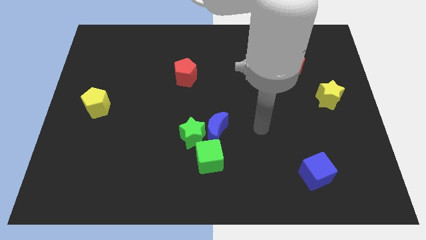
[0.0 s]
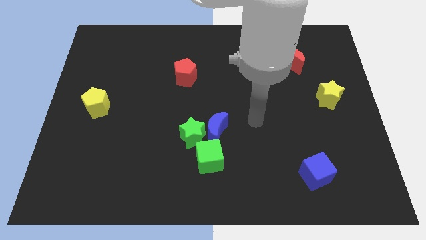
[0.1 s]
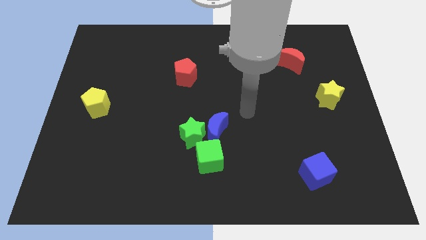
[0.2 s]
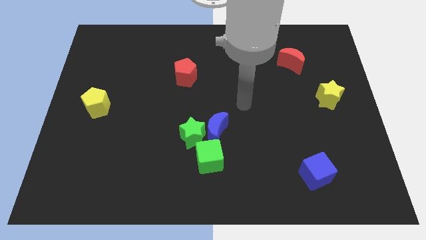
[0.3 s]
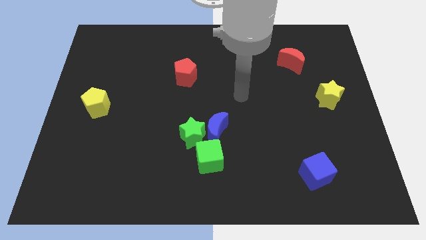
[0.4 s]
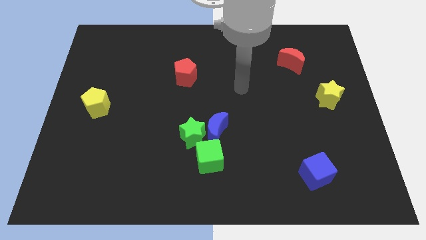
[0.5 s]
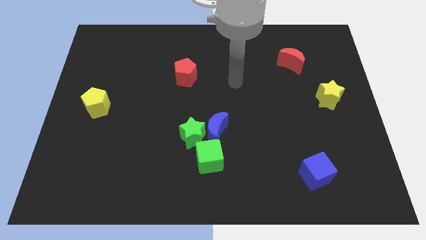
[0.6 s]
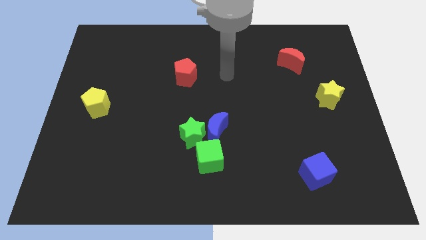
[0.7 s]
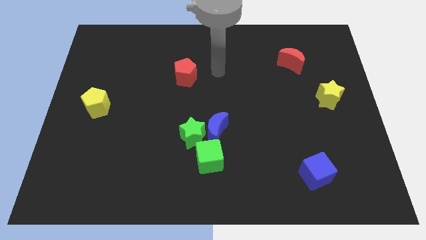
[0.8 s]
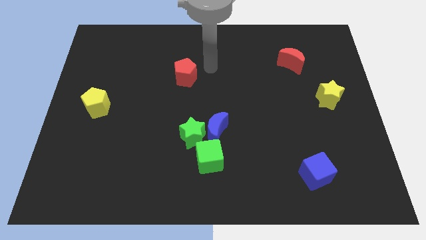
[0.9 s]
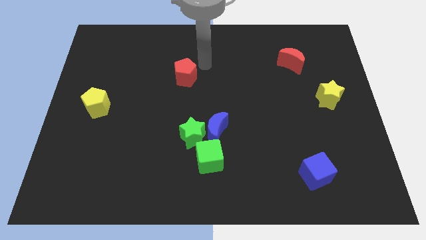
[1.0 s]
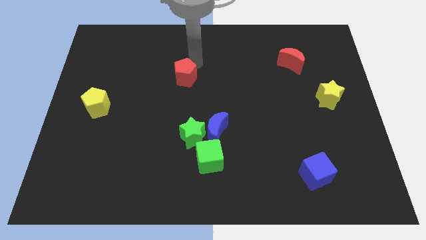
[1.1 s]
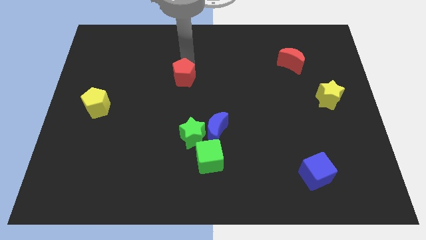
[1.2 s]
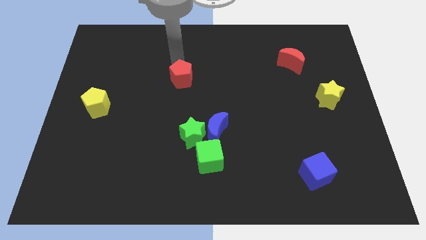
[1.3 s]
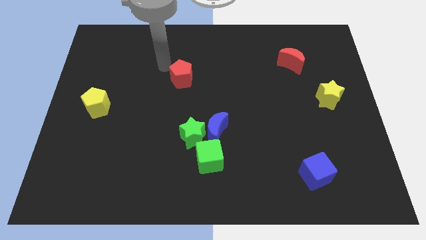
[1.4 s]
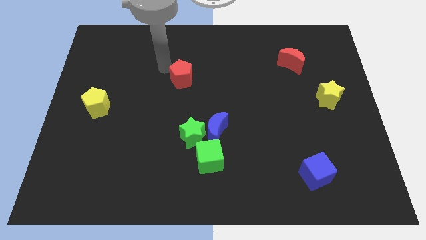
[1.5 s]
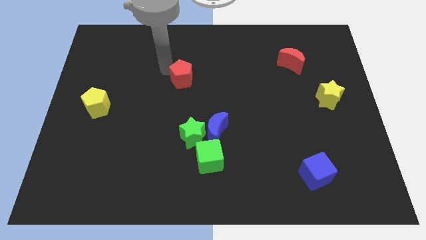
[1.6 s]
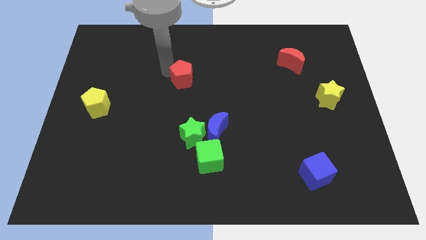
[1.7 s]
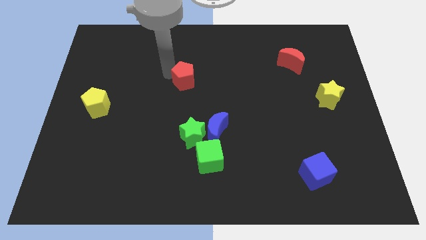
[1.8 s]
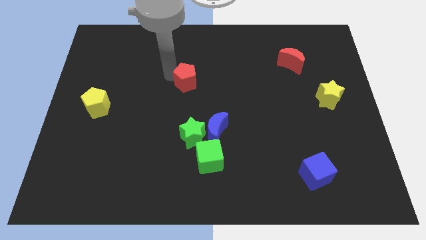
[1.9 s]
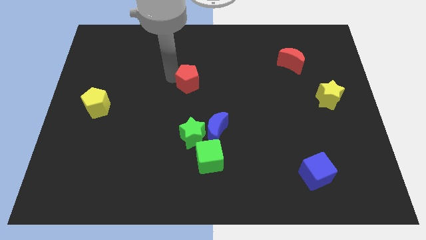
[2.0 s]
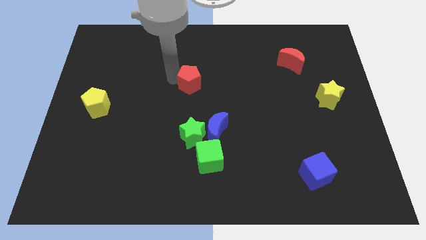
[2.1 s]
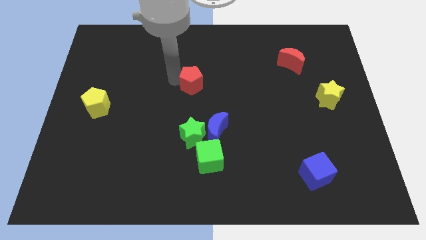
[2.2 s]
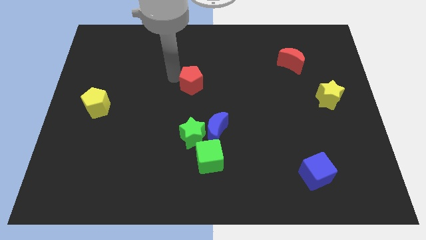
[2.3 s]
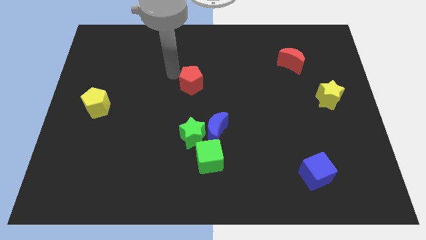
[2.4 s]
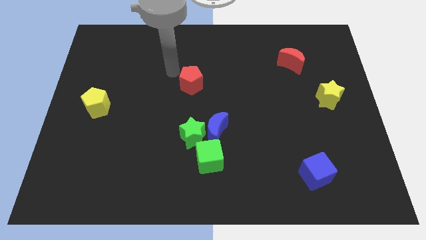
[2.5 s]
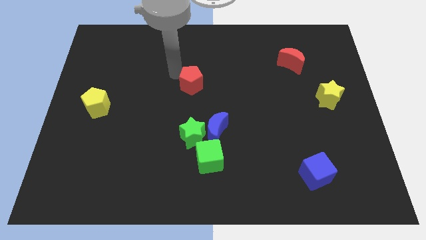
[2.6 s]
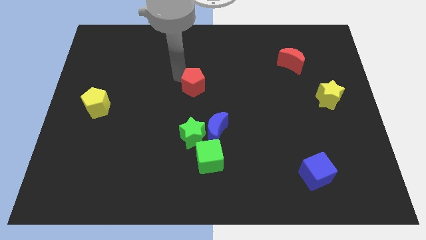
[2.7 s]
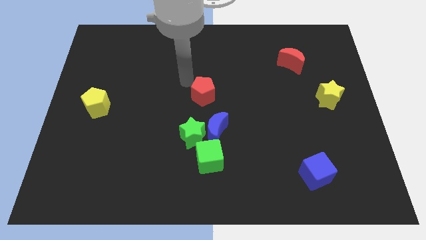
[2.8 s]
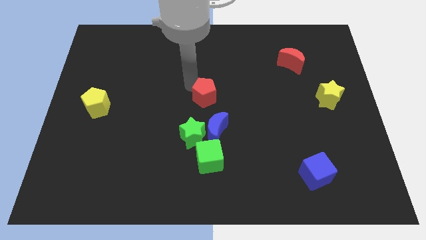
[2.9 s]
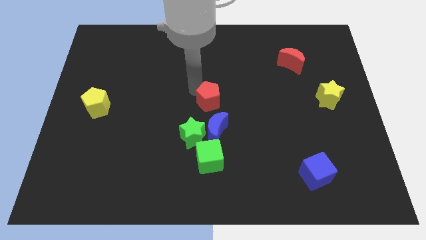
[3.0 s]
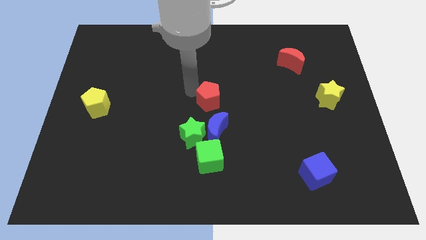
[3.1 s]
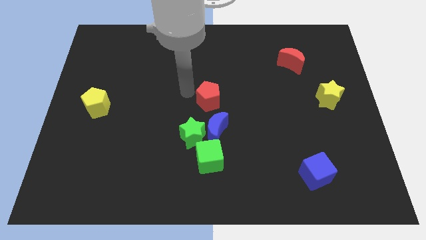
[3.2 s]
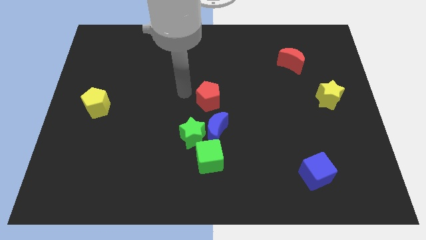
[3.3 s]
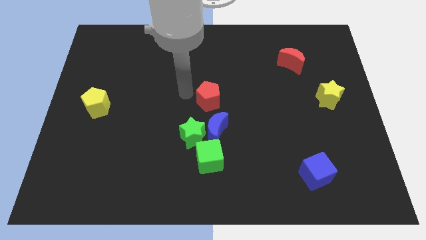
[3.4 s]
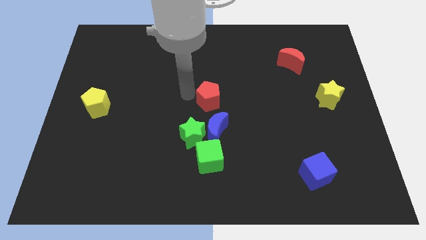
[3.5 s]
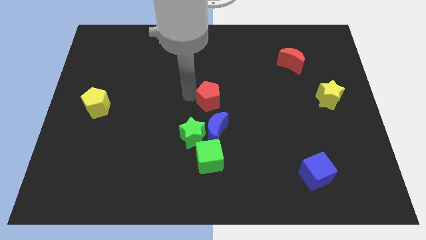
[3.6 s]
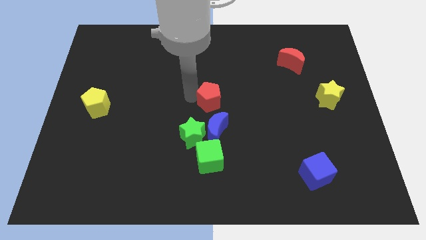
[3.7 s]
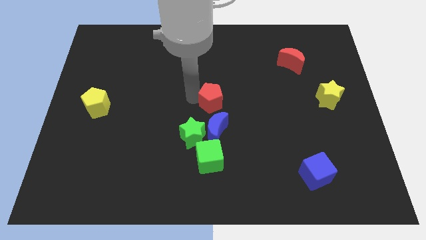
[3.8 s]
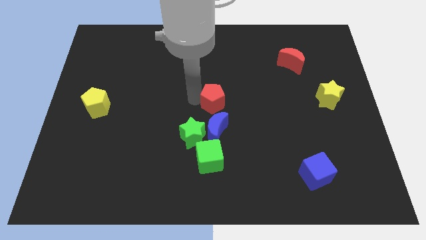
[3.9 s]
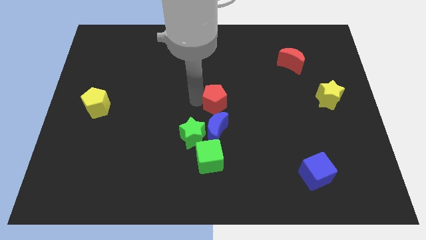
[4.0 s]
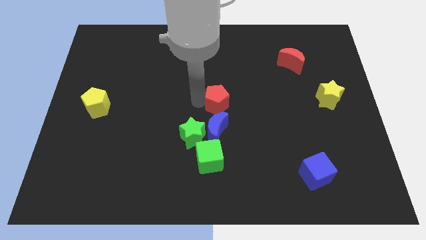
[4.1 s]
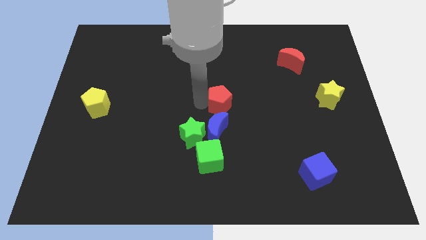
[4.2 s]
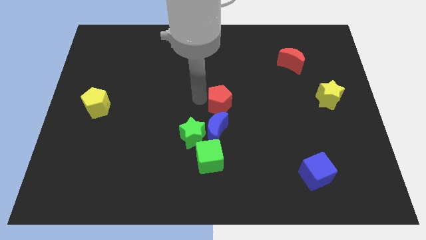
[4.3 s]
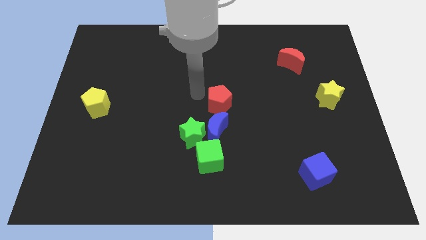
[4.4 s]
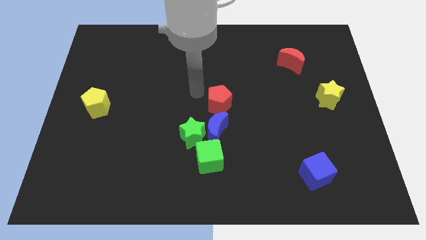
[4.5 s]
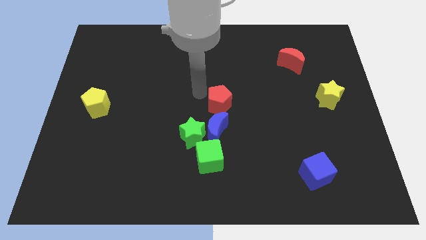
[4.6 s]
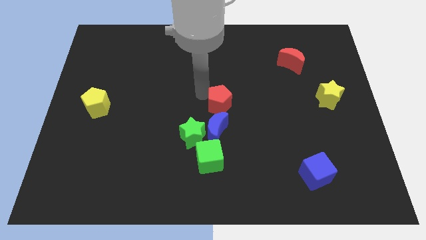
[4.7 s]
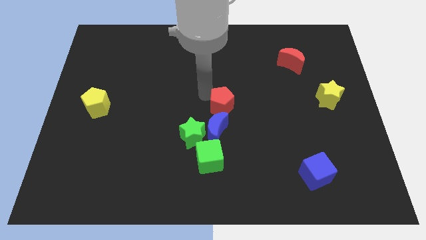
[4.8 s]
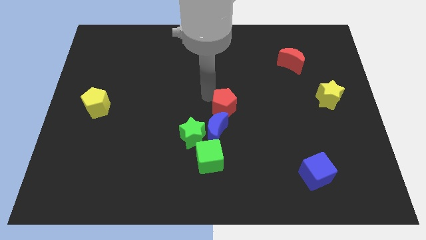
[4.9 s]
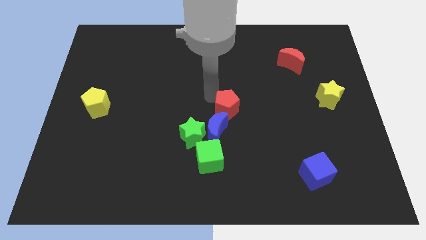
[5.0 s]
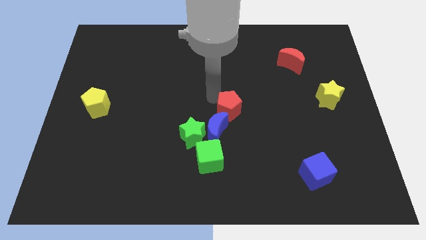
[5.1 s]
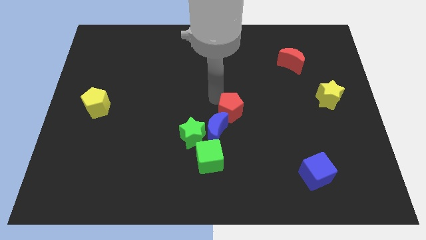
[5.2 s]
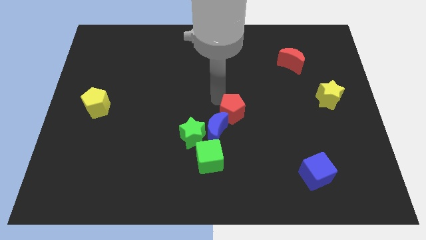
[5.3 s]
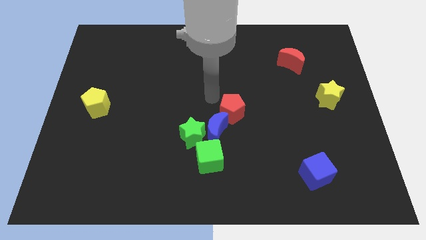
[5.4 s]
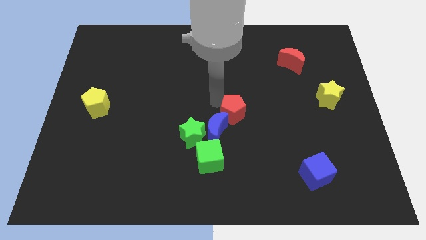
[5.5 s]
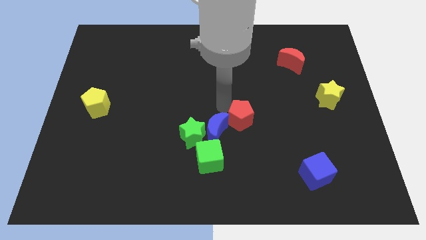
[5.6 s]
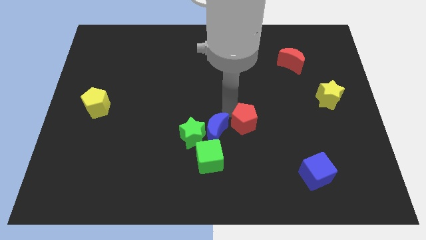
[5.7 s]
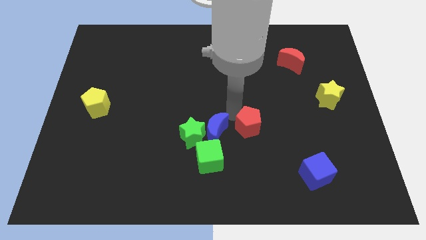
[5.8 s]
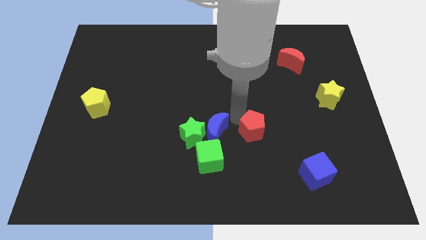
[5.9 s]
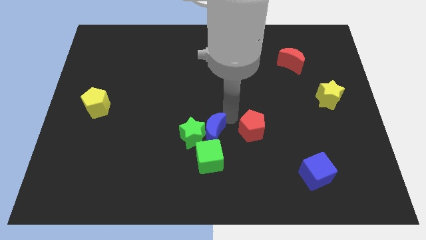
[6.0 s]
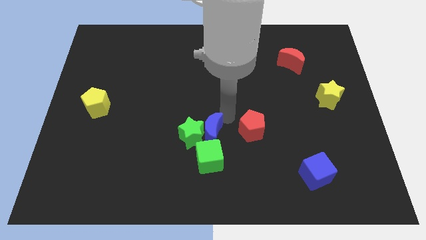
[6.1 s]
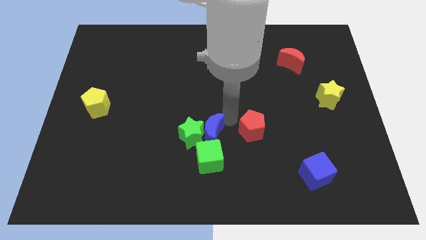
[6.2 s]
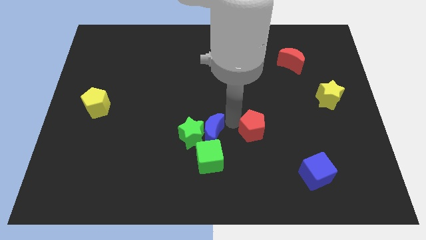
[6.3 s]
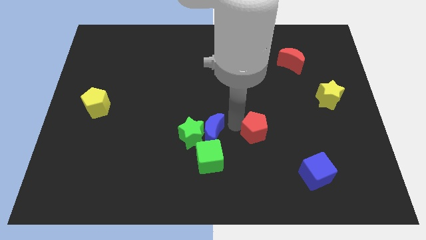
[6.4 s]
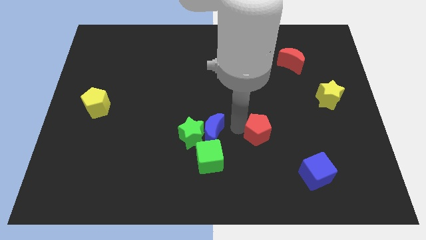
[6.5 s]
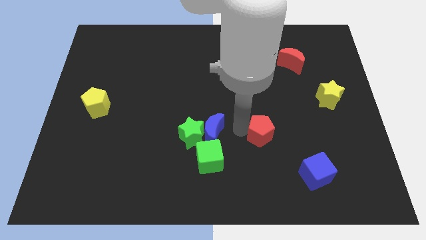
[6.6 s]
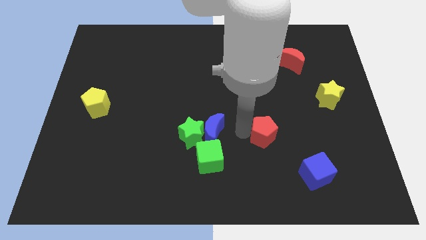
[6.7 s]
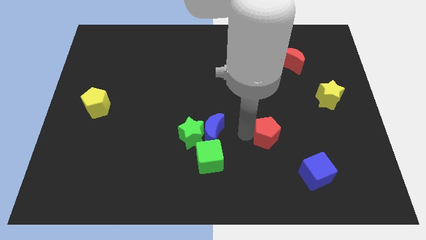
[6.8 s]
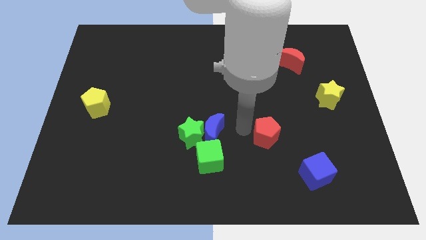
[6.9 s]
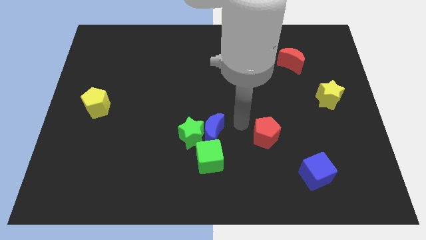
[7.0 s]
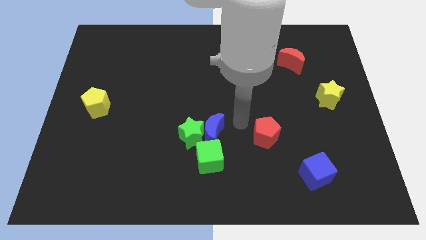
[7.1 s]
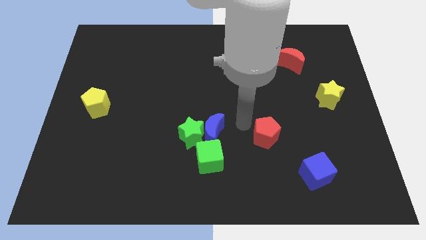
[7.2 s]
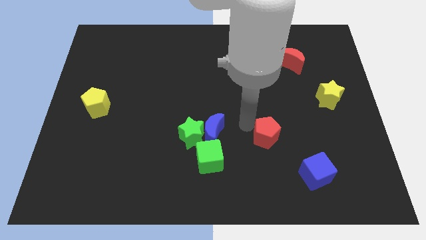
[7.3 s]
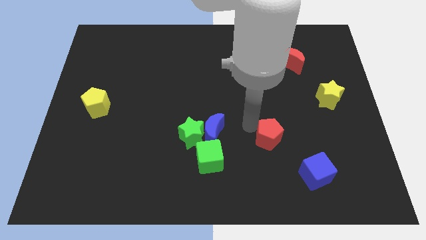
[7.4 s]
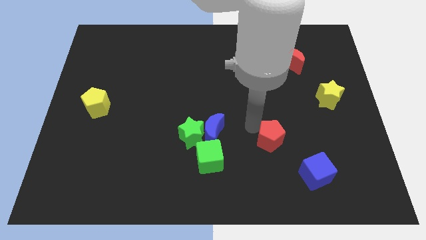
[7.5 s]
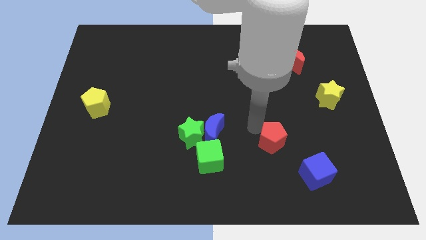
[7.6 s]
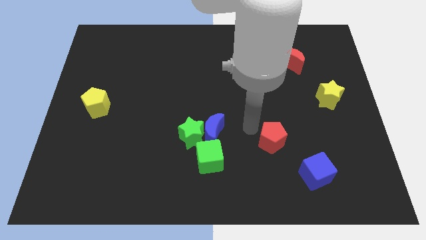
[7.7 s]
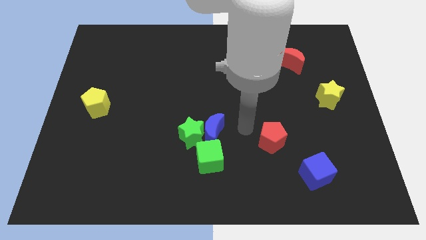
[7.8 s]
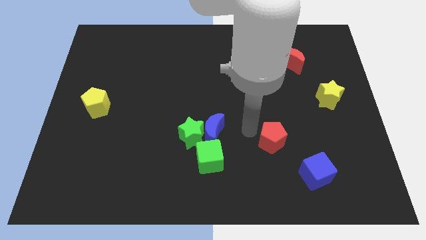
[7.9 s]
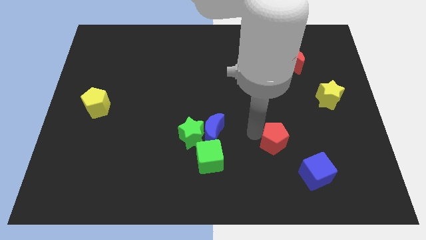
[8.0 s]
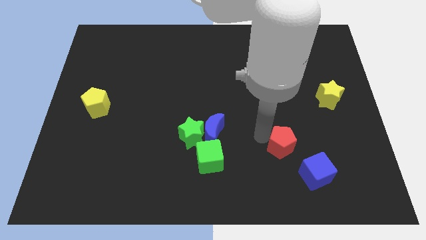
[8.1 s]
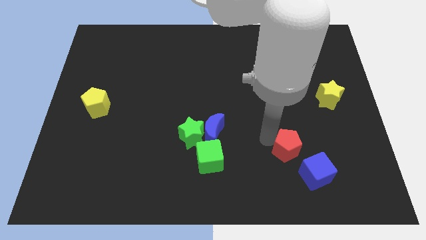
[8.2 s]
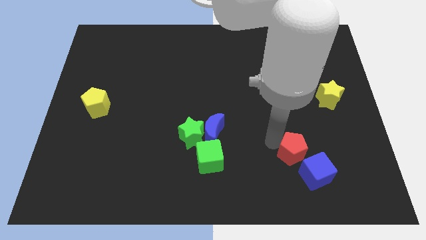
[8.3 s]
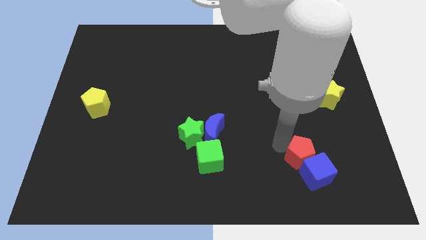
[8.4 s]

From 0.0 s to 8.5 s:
move the red pentagon next to the blue cube
